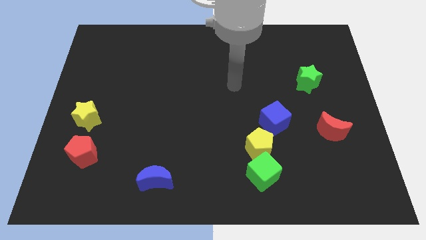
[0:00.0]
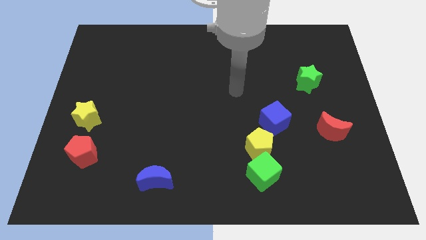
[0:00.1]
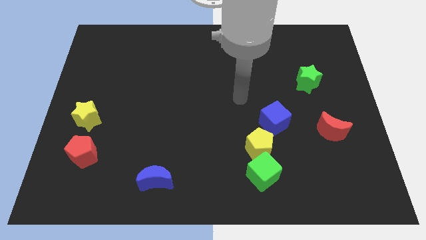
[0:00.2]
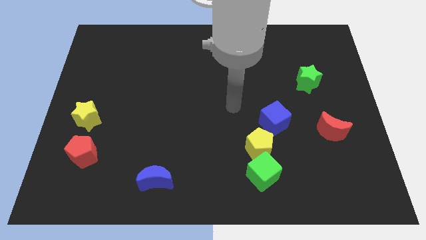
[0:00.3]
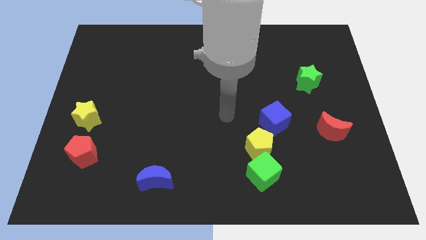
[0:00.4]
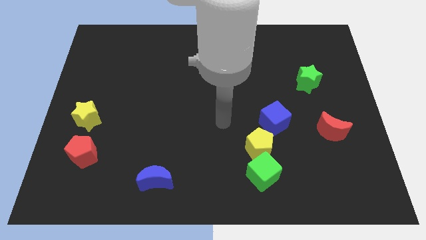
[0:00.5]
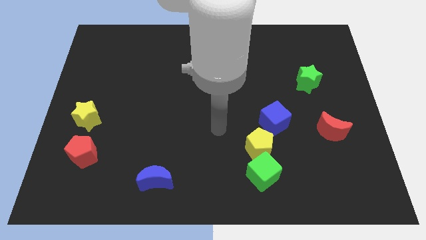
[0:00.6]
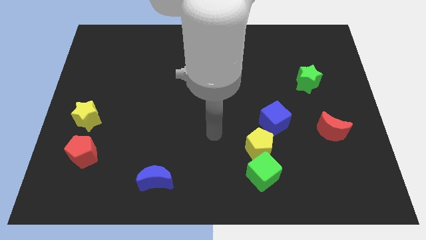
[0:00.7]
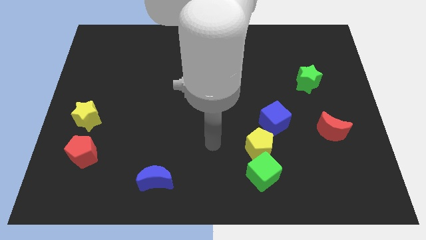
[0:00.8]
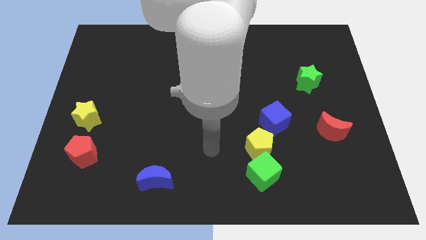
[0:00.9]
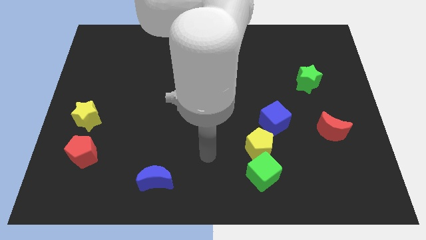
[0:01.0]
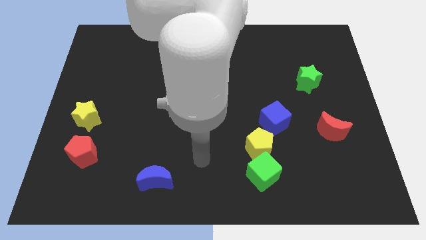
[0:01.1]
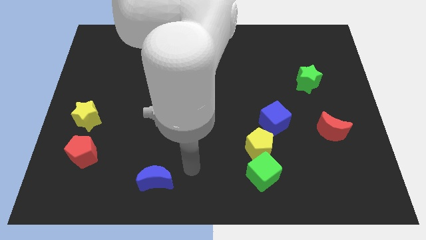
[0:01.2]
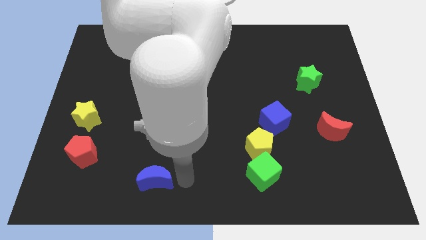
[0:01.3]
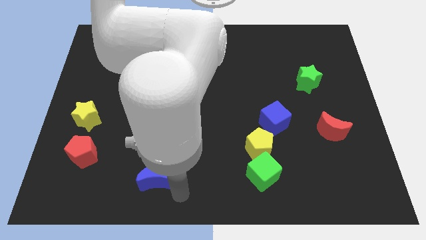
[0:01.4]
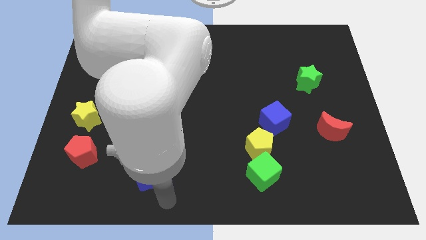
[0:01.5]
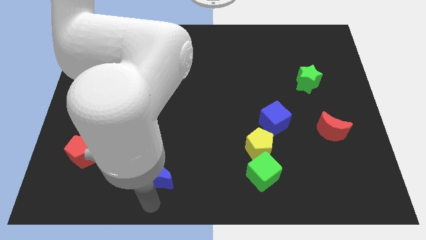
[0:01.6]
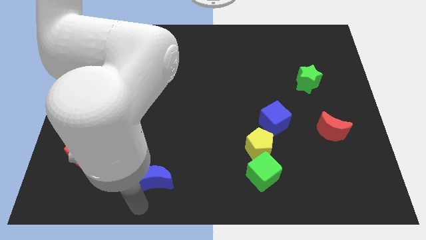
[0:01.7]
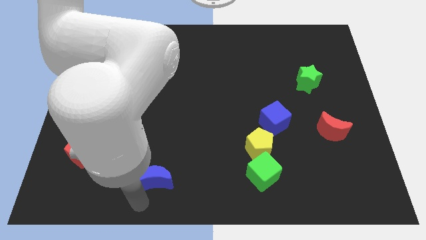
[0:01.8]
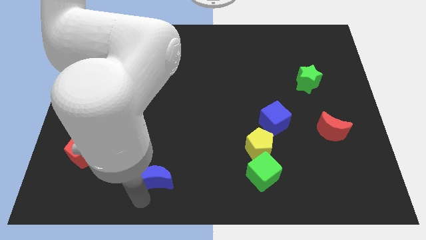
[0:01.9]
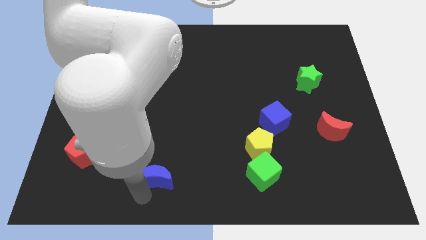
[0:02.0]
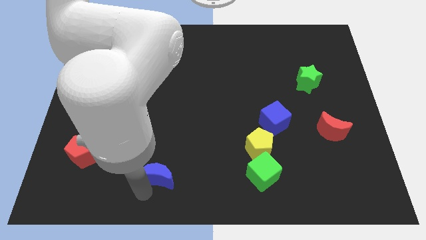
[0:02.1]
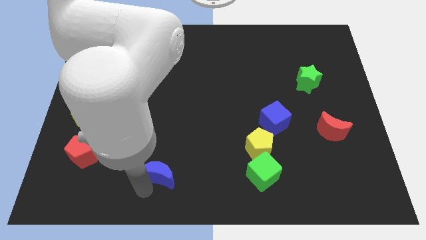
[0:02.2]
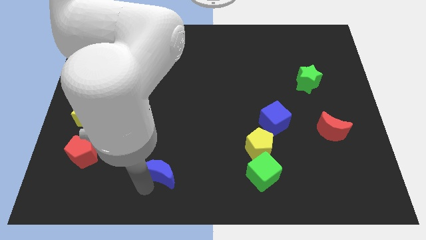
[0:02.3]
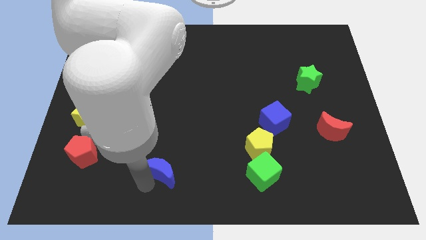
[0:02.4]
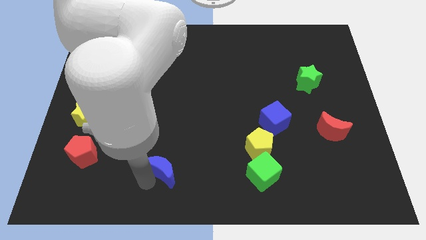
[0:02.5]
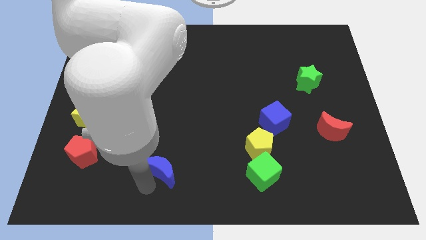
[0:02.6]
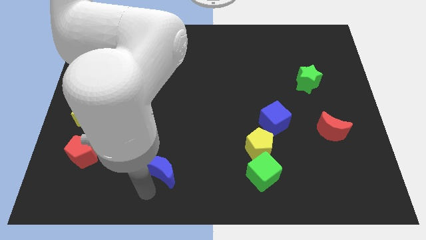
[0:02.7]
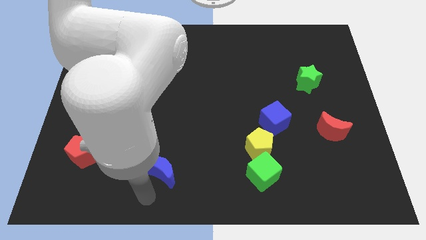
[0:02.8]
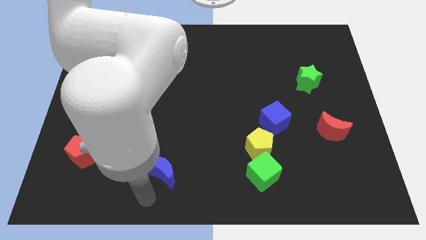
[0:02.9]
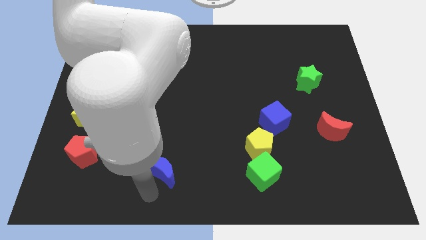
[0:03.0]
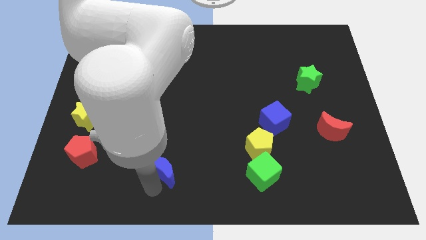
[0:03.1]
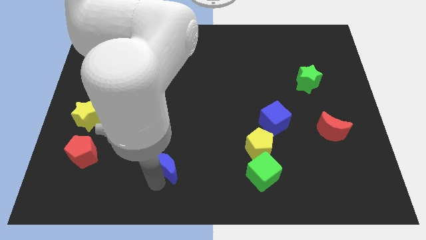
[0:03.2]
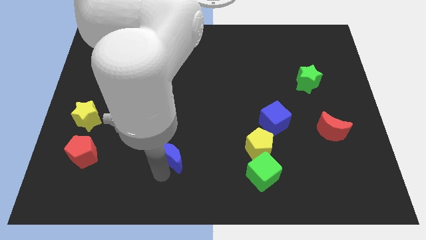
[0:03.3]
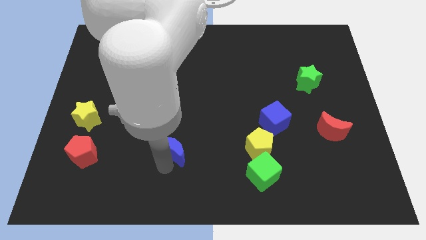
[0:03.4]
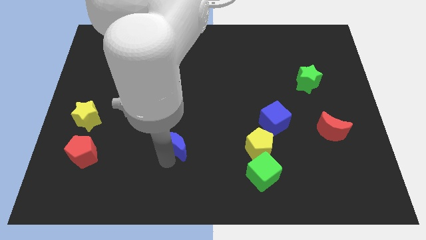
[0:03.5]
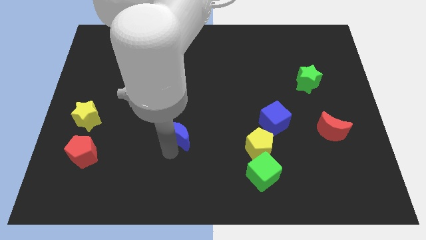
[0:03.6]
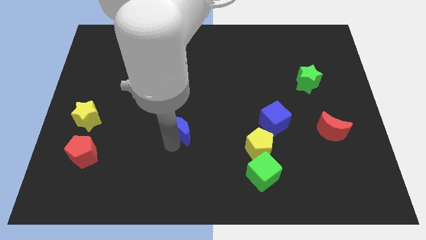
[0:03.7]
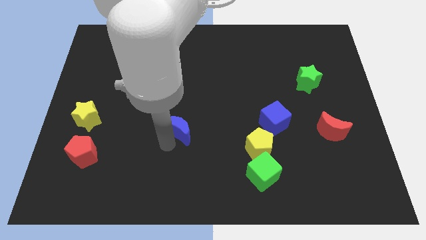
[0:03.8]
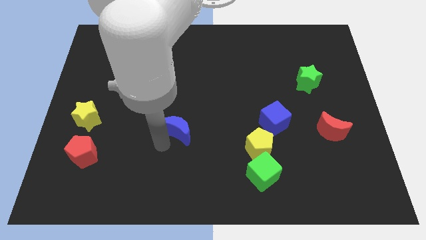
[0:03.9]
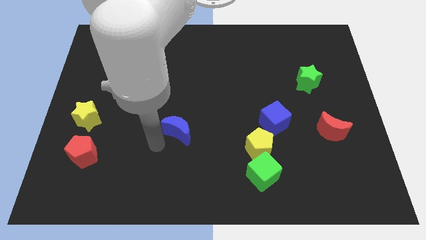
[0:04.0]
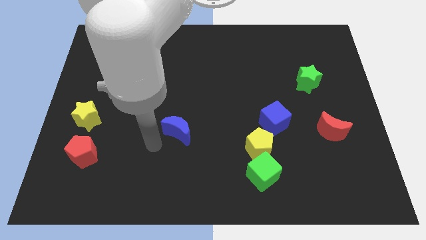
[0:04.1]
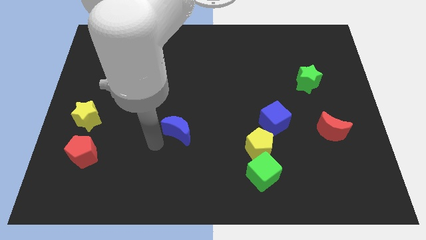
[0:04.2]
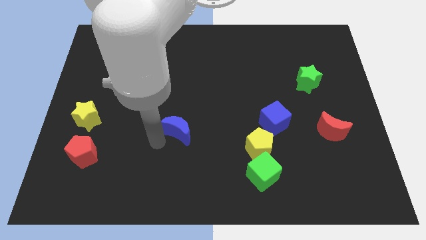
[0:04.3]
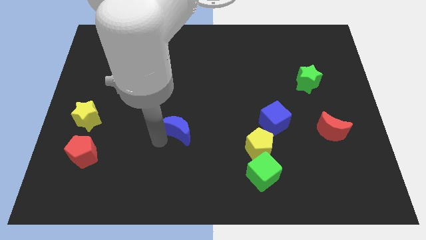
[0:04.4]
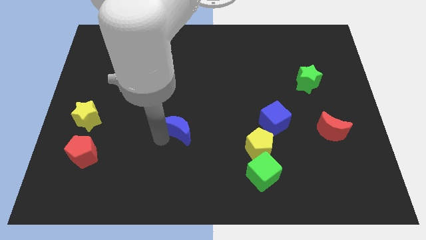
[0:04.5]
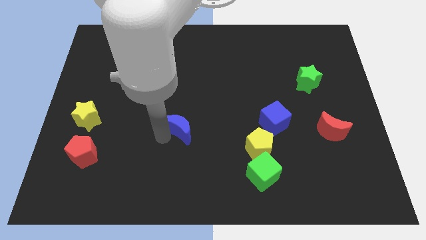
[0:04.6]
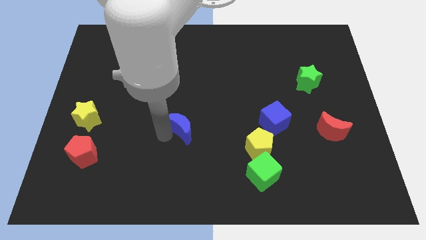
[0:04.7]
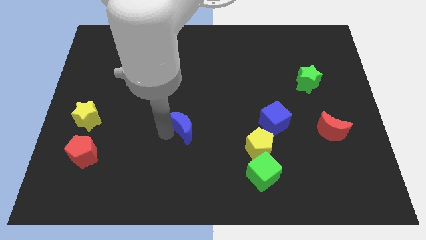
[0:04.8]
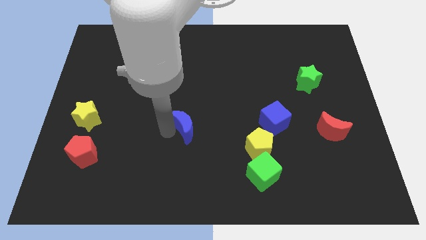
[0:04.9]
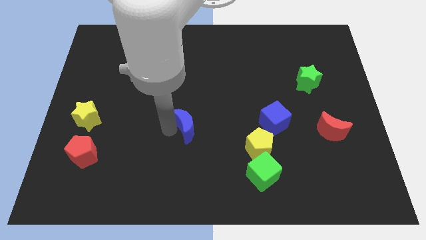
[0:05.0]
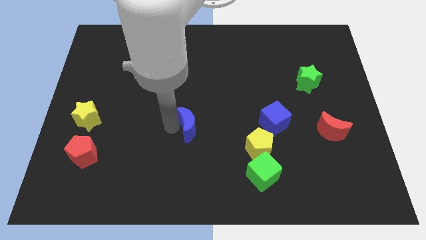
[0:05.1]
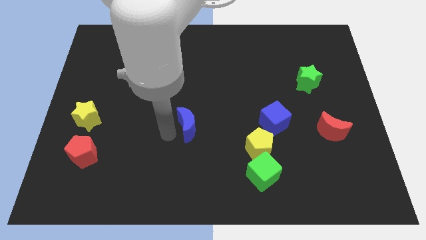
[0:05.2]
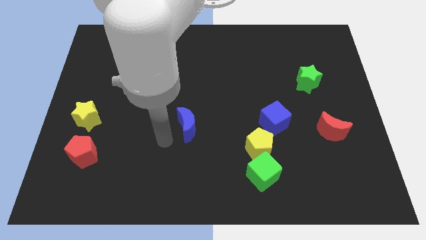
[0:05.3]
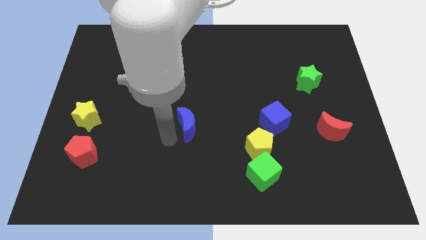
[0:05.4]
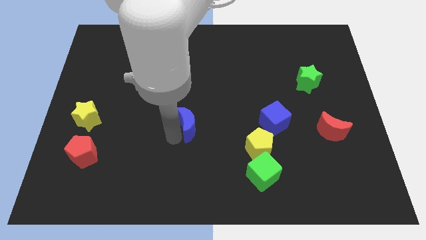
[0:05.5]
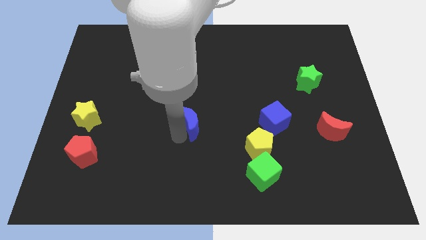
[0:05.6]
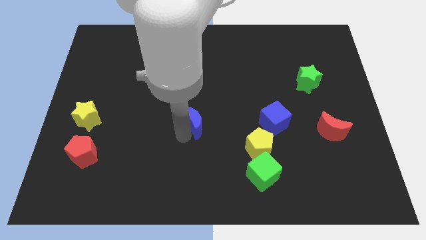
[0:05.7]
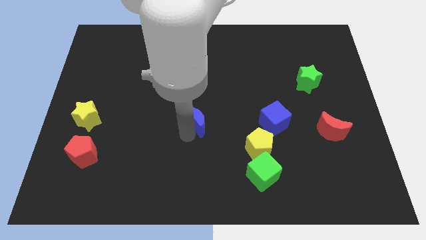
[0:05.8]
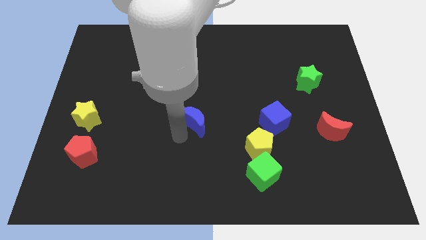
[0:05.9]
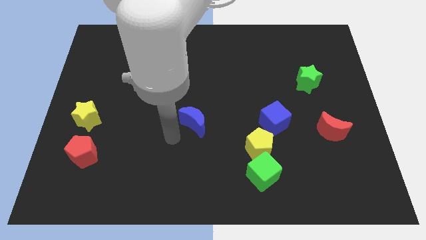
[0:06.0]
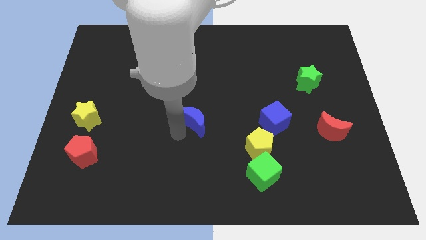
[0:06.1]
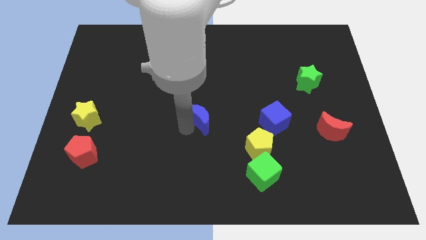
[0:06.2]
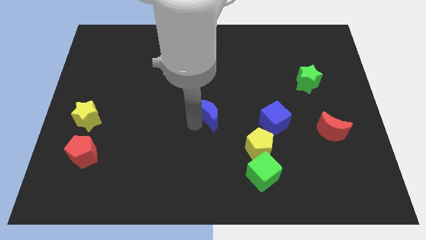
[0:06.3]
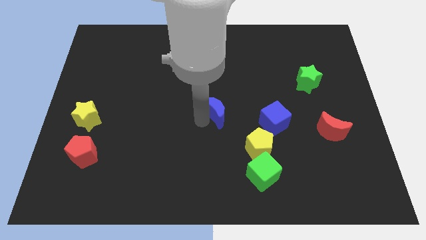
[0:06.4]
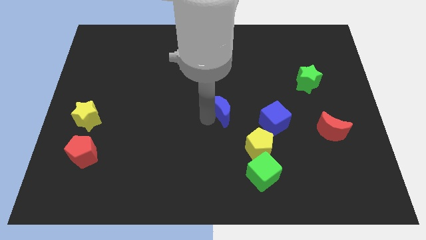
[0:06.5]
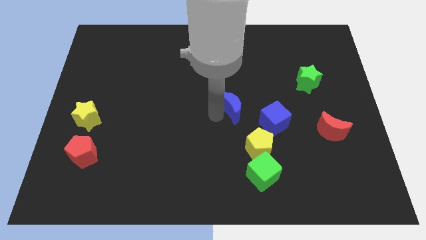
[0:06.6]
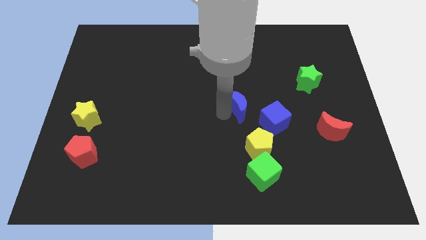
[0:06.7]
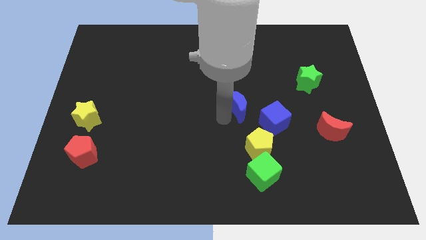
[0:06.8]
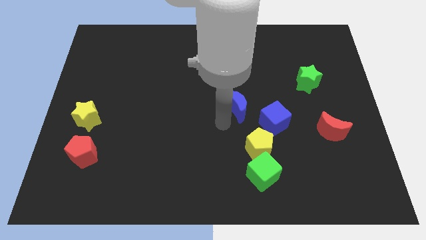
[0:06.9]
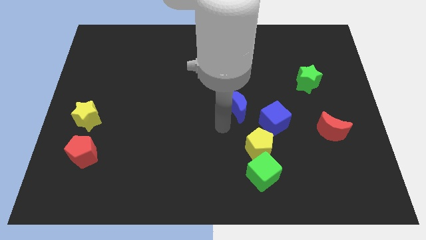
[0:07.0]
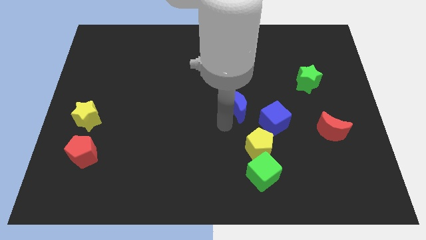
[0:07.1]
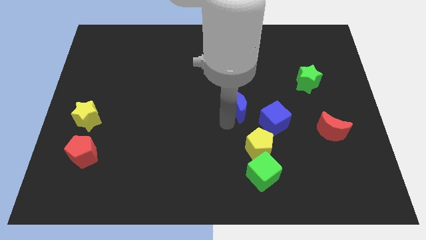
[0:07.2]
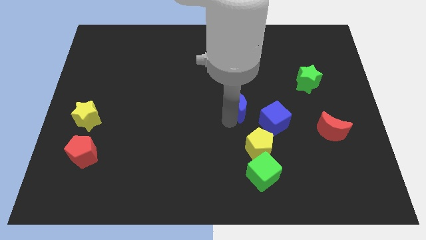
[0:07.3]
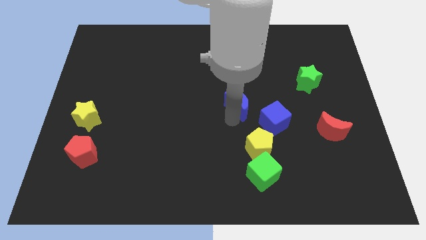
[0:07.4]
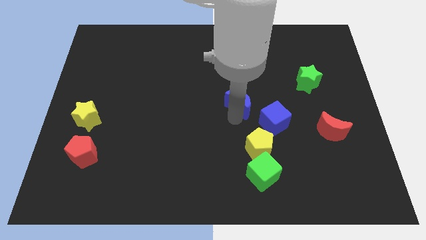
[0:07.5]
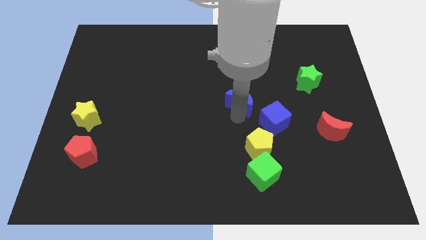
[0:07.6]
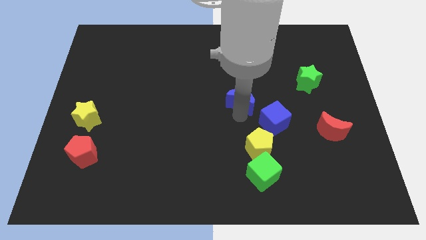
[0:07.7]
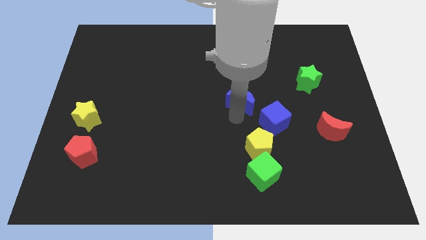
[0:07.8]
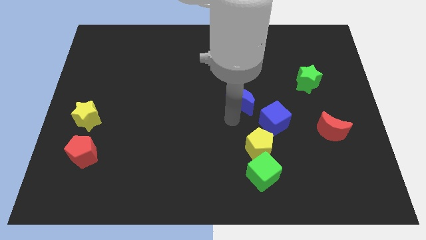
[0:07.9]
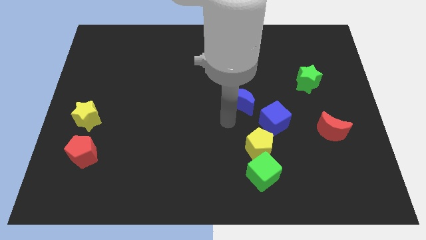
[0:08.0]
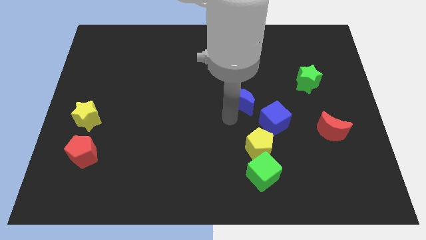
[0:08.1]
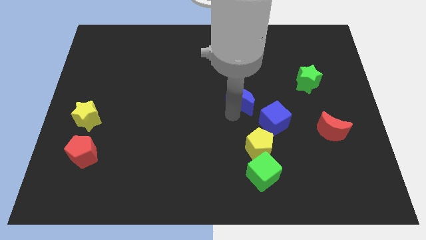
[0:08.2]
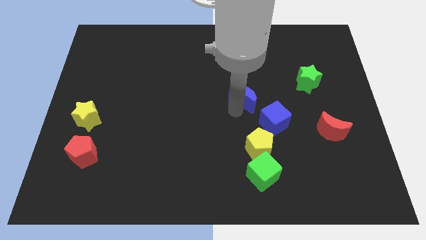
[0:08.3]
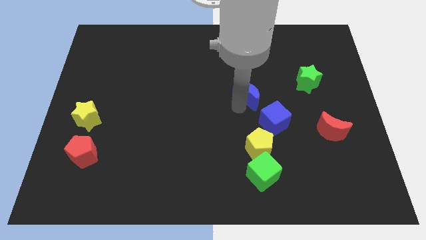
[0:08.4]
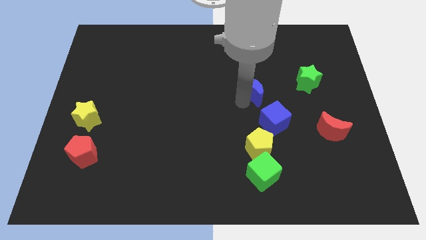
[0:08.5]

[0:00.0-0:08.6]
move the blue moon to the left of the green star
